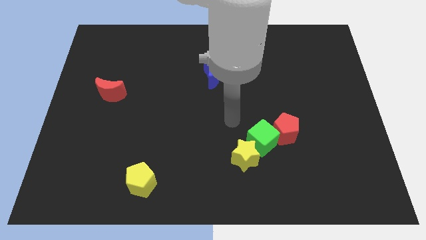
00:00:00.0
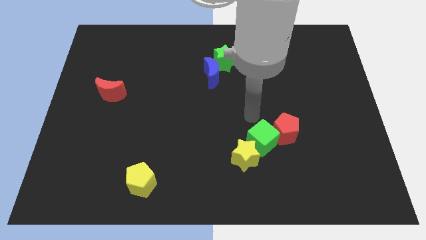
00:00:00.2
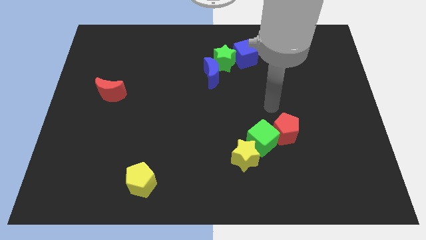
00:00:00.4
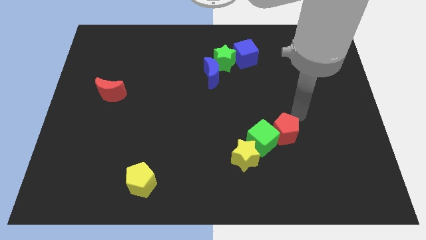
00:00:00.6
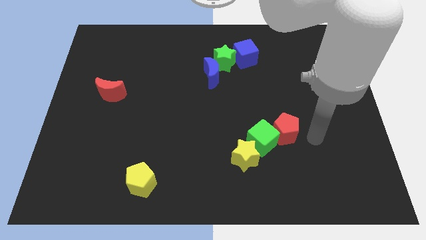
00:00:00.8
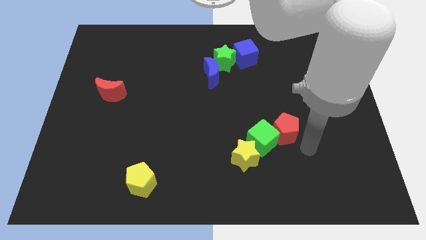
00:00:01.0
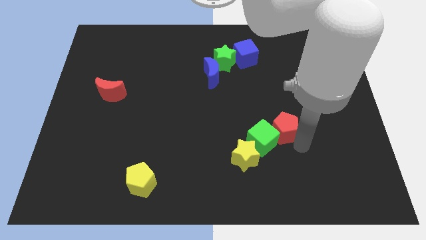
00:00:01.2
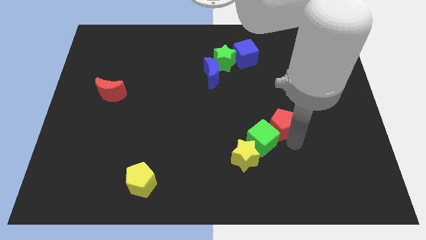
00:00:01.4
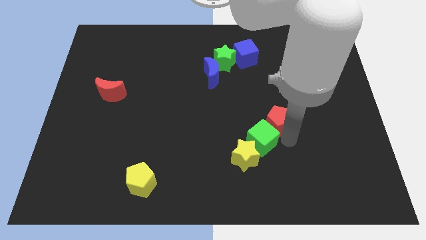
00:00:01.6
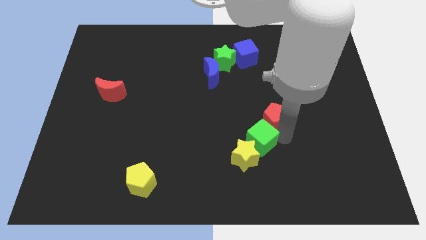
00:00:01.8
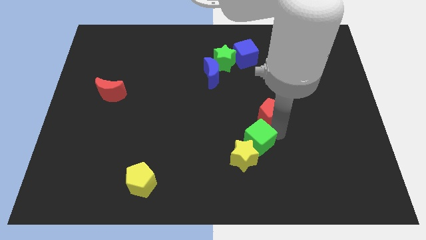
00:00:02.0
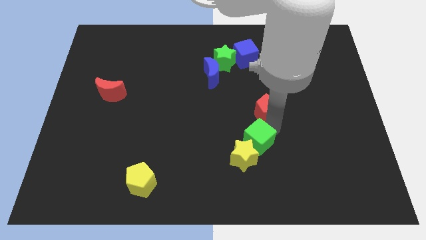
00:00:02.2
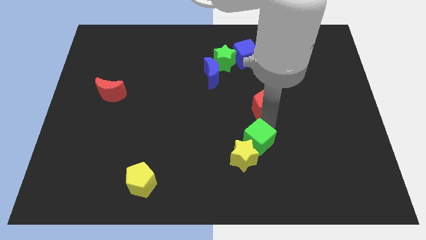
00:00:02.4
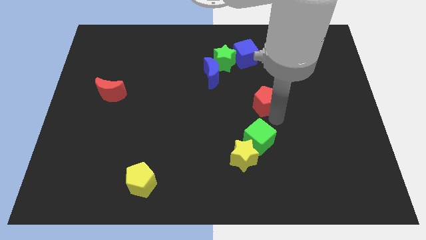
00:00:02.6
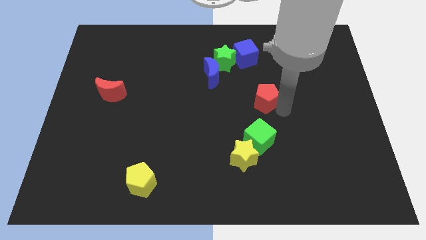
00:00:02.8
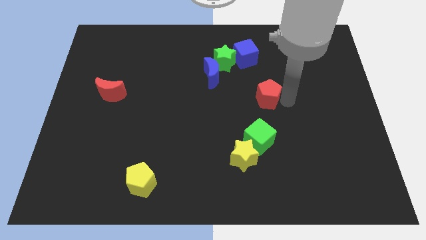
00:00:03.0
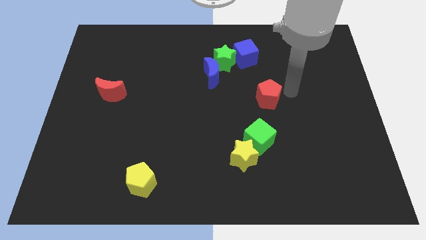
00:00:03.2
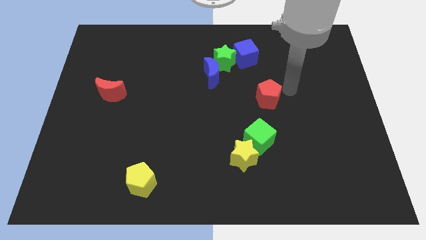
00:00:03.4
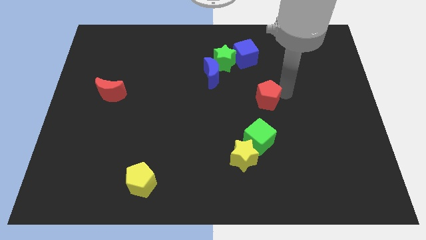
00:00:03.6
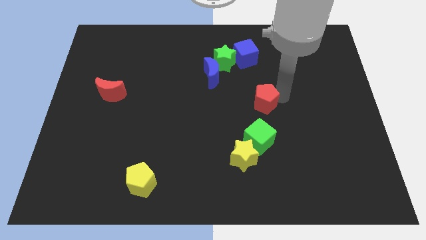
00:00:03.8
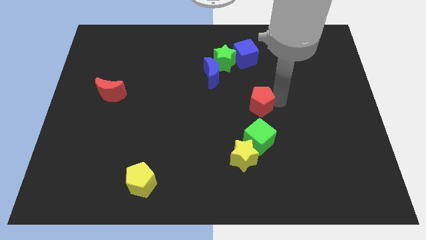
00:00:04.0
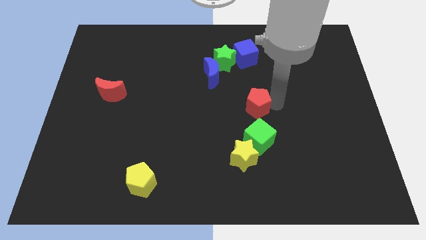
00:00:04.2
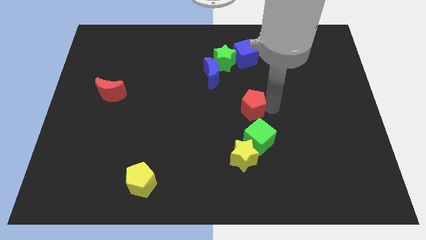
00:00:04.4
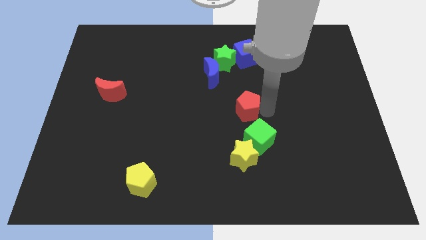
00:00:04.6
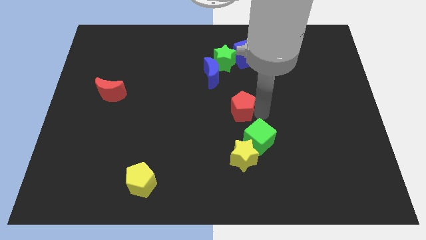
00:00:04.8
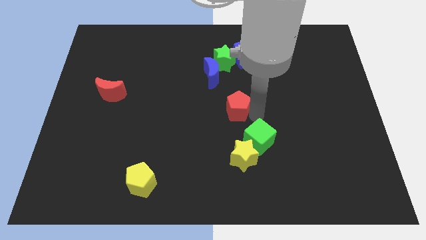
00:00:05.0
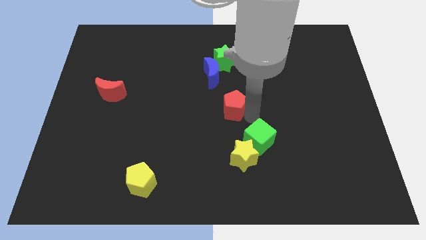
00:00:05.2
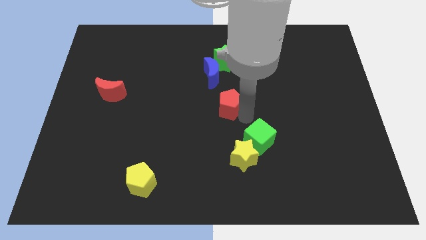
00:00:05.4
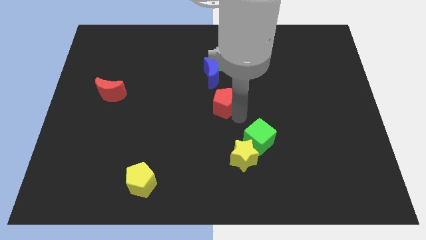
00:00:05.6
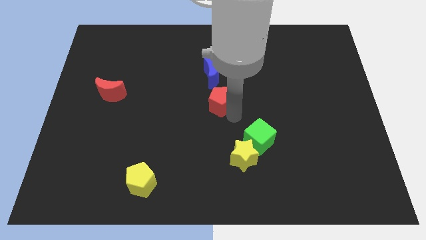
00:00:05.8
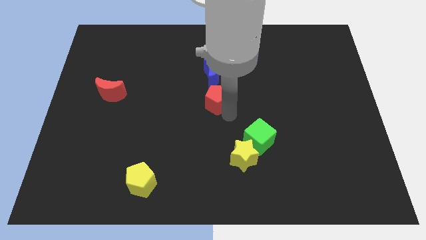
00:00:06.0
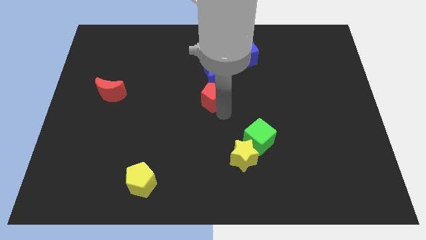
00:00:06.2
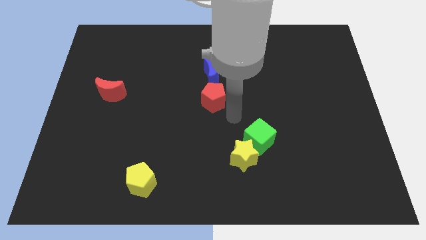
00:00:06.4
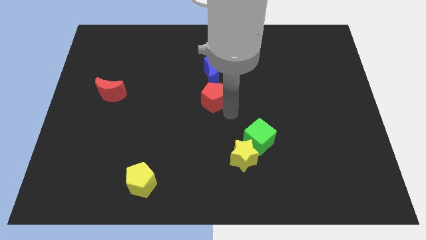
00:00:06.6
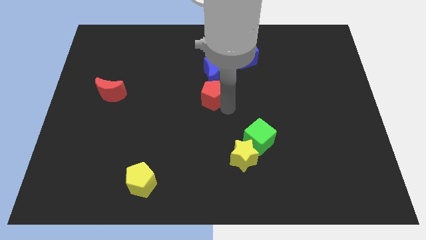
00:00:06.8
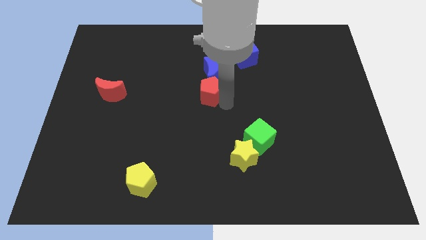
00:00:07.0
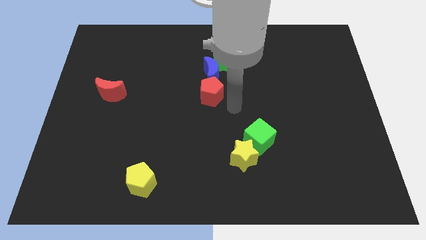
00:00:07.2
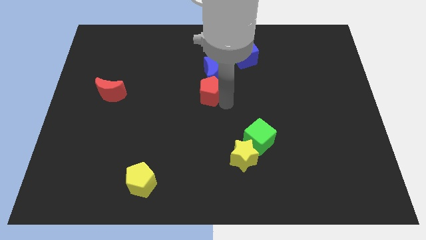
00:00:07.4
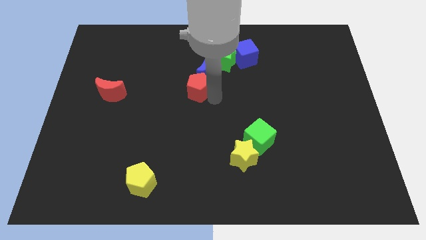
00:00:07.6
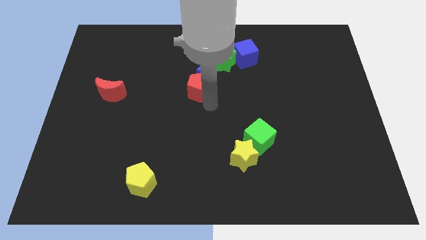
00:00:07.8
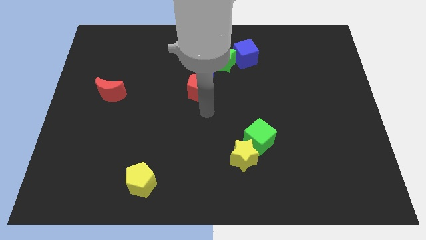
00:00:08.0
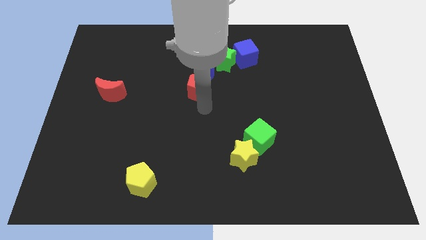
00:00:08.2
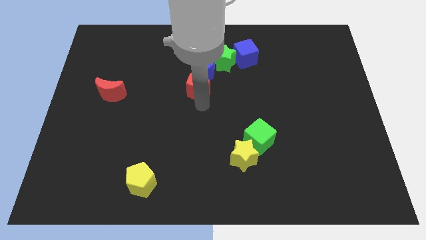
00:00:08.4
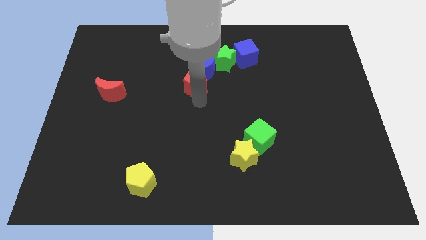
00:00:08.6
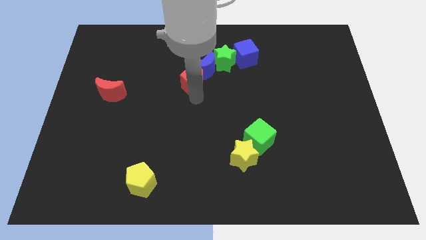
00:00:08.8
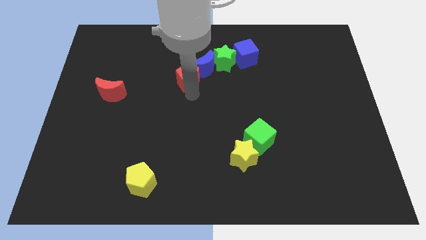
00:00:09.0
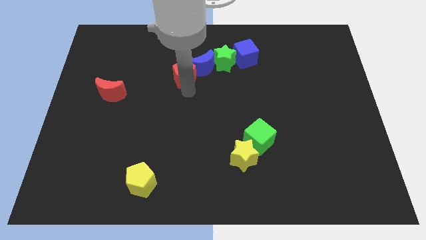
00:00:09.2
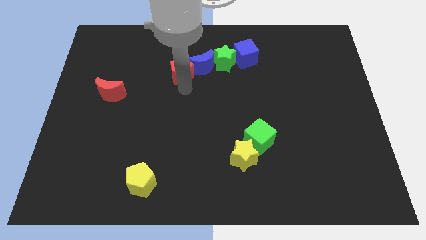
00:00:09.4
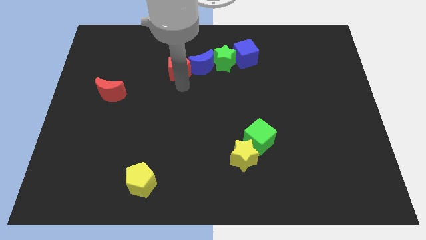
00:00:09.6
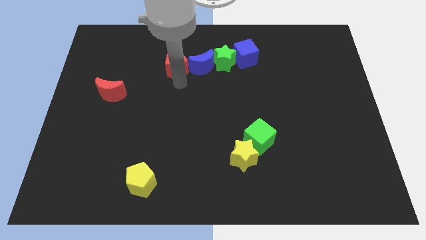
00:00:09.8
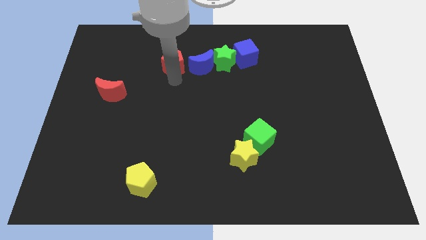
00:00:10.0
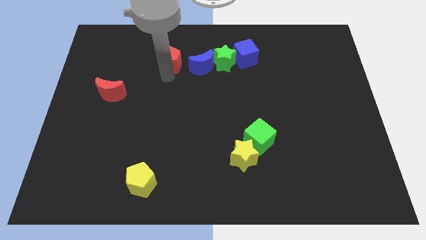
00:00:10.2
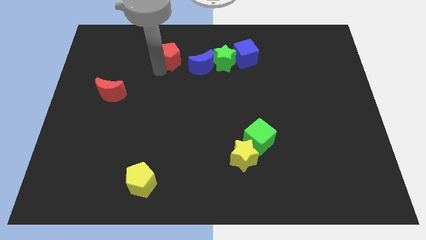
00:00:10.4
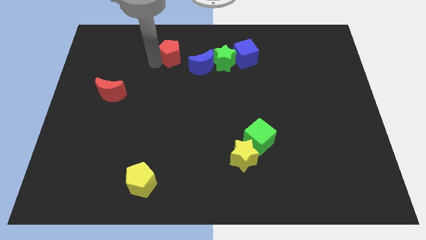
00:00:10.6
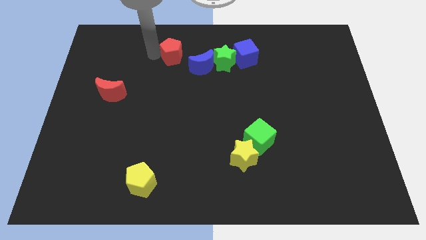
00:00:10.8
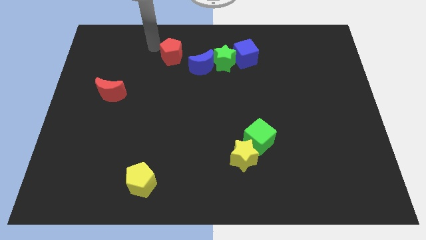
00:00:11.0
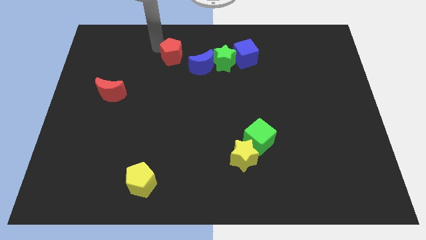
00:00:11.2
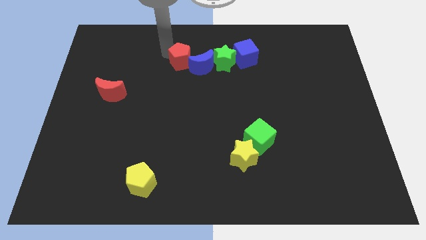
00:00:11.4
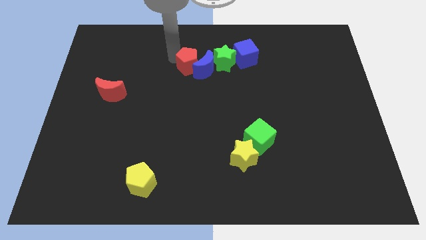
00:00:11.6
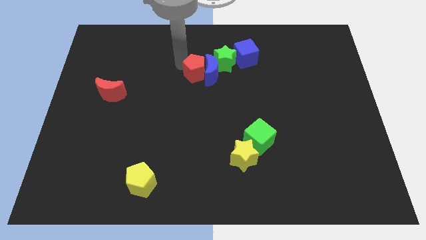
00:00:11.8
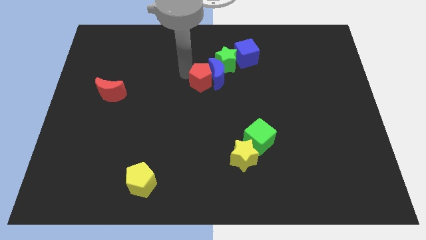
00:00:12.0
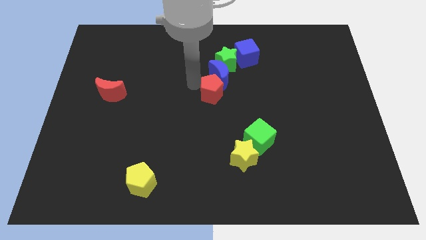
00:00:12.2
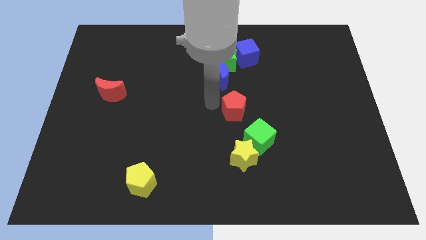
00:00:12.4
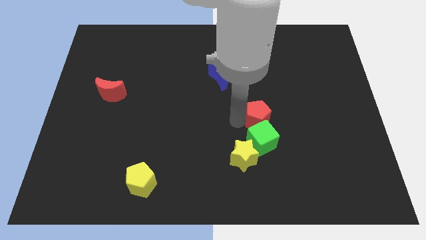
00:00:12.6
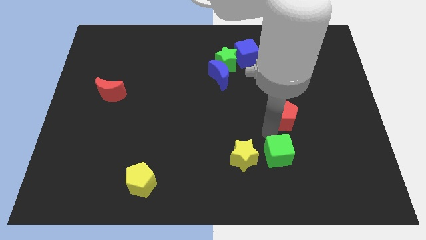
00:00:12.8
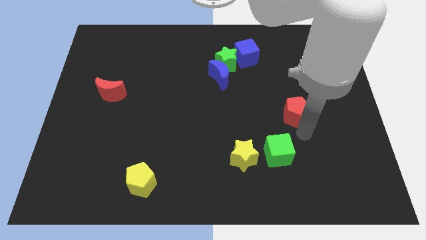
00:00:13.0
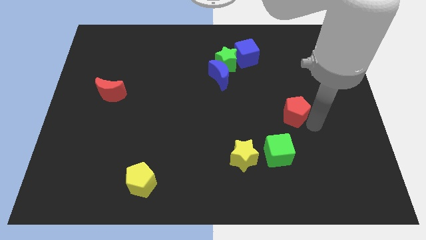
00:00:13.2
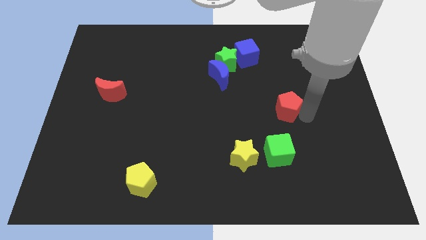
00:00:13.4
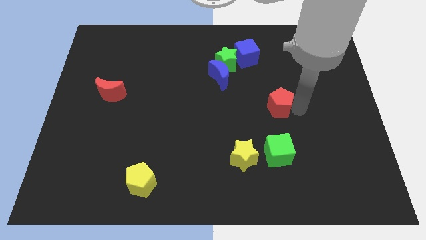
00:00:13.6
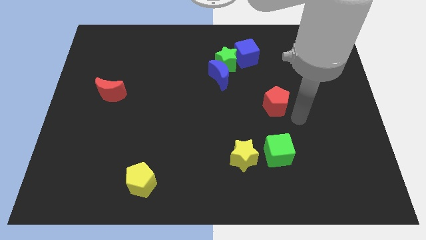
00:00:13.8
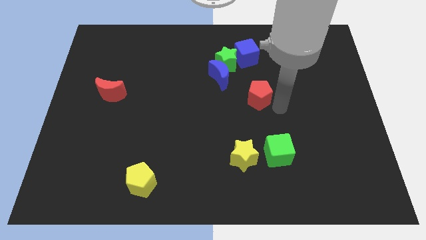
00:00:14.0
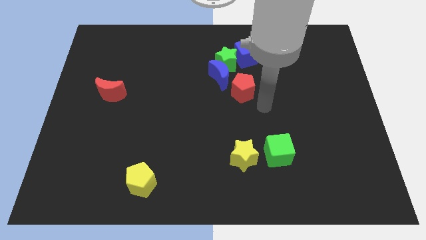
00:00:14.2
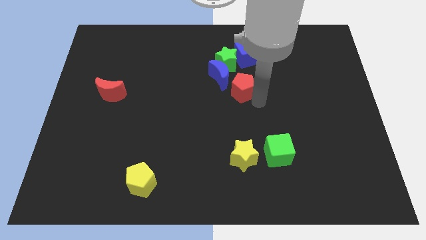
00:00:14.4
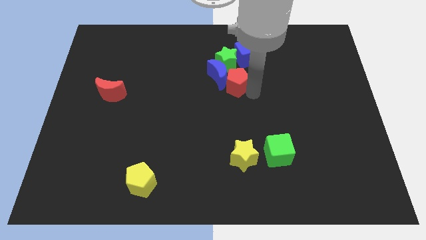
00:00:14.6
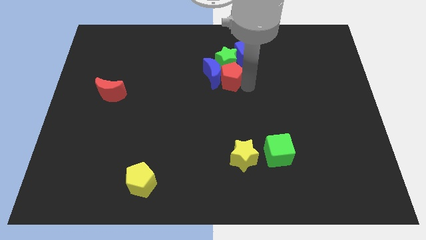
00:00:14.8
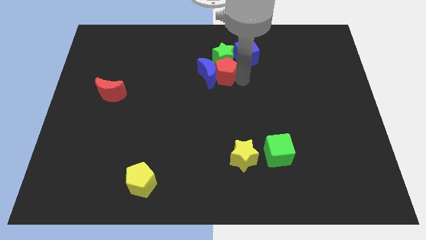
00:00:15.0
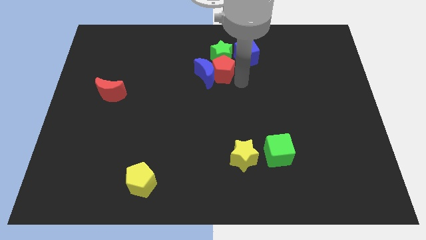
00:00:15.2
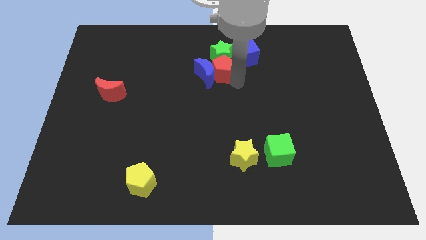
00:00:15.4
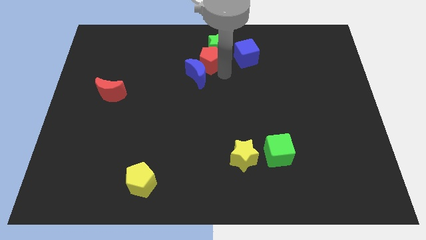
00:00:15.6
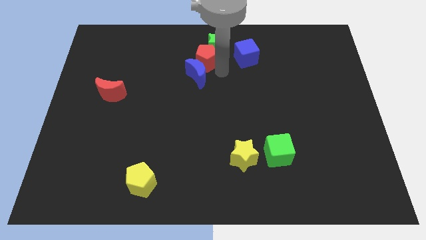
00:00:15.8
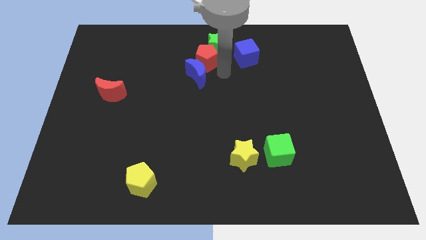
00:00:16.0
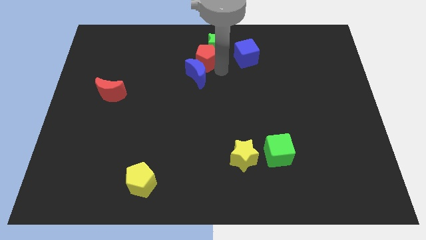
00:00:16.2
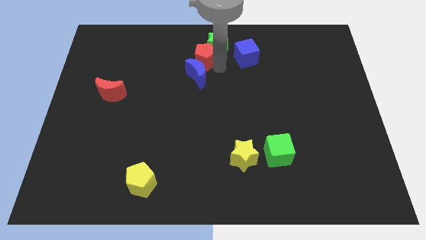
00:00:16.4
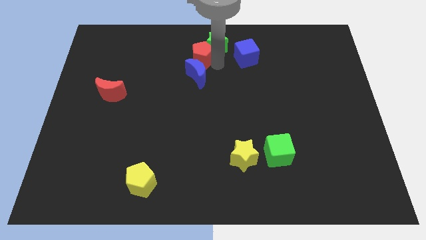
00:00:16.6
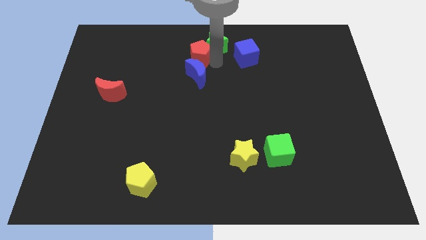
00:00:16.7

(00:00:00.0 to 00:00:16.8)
put the red pentagon to the top side
